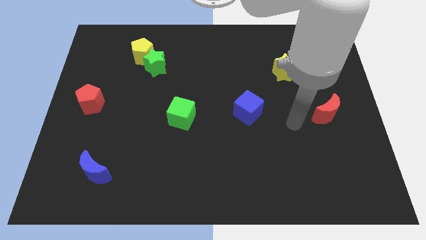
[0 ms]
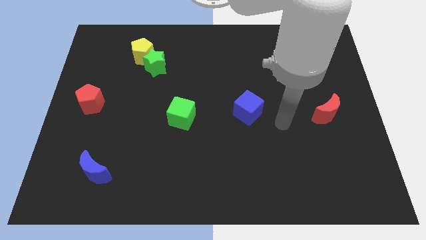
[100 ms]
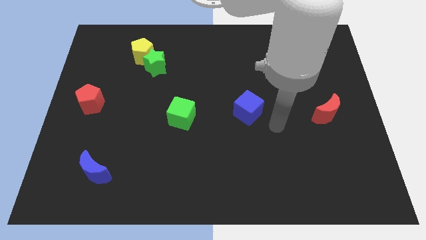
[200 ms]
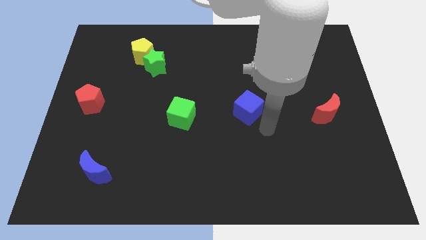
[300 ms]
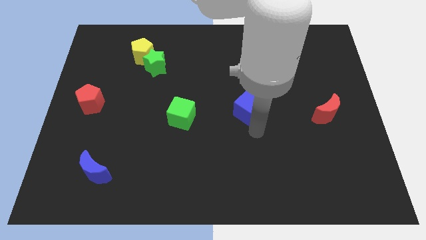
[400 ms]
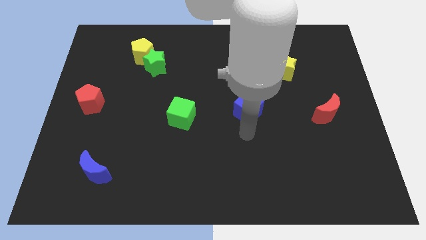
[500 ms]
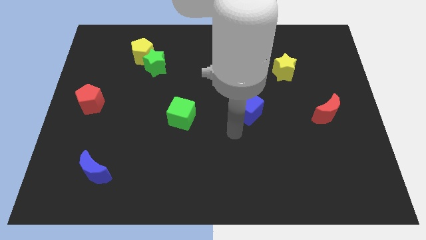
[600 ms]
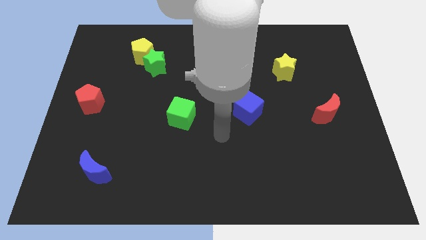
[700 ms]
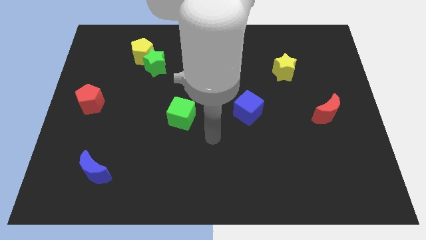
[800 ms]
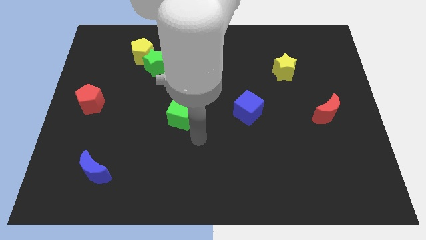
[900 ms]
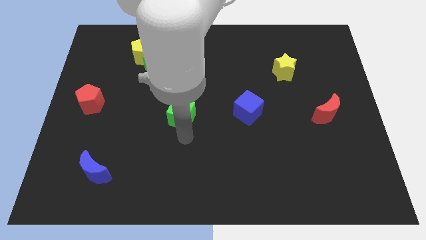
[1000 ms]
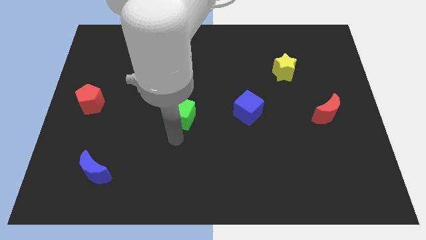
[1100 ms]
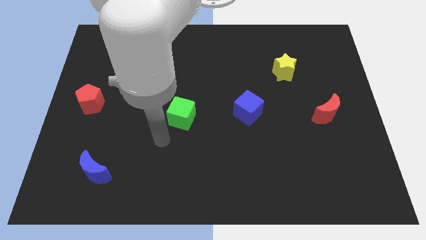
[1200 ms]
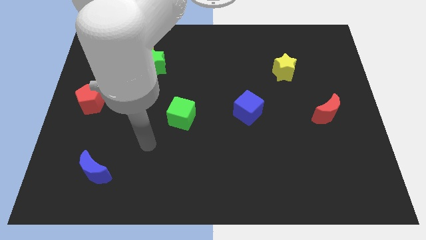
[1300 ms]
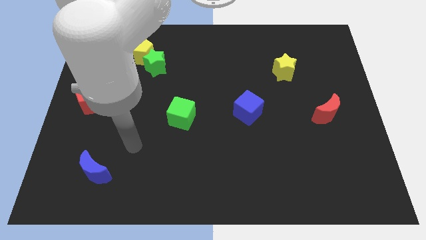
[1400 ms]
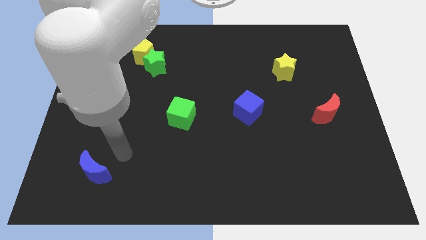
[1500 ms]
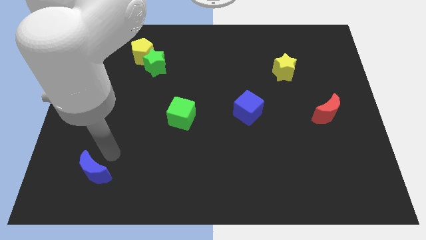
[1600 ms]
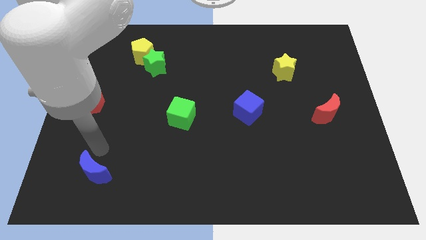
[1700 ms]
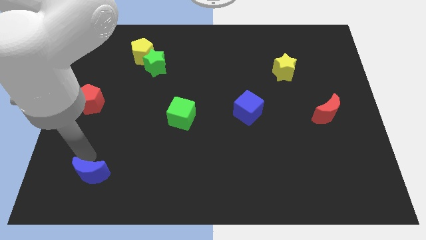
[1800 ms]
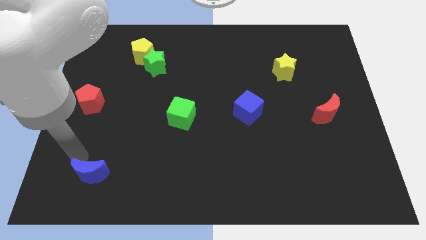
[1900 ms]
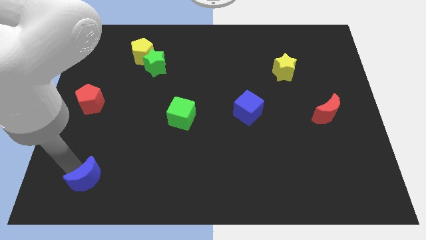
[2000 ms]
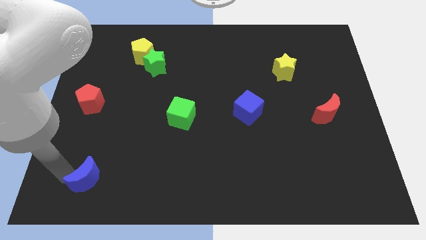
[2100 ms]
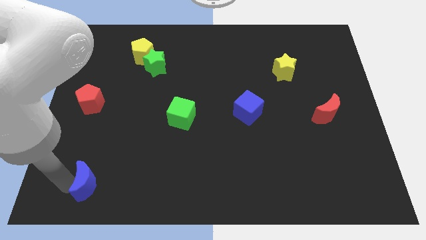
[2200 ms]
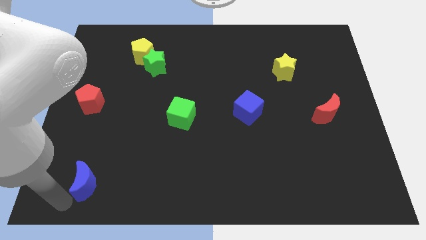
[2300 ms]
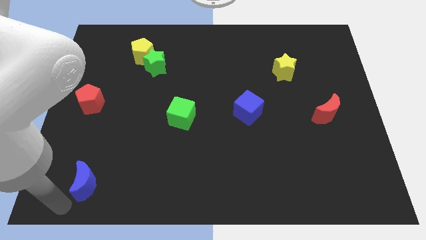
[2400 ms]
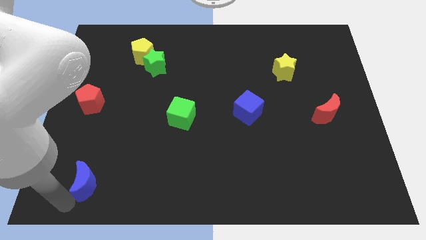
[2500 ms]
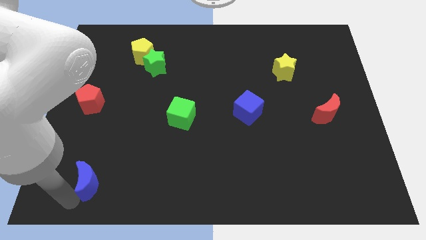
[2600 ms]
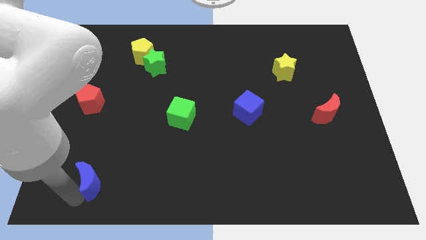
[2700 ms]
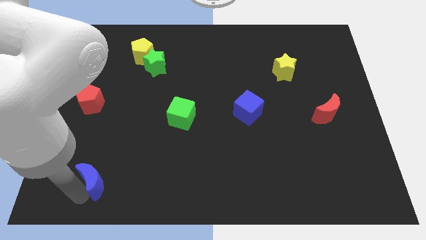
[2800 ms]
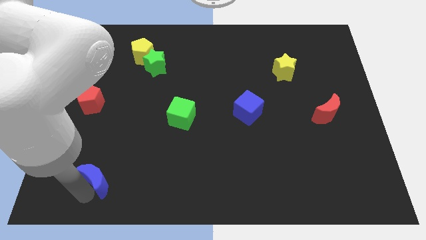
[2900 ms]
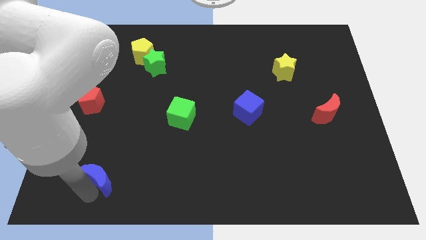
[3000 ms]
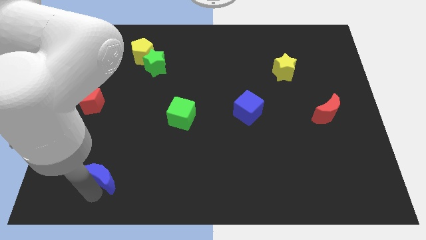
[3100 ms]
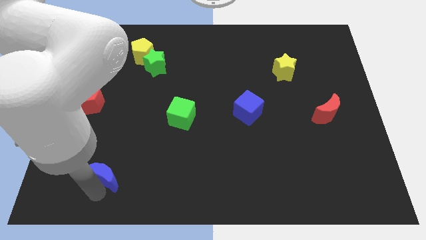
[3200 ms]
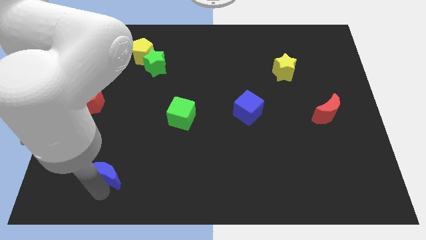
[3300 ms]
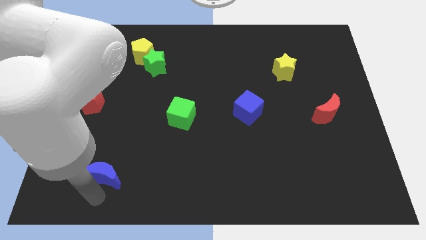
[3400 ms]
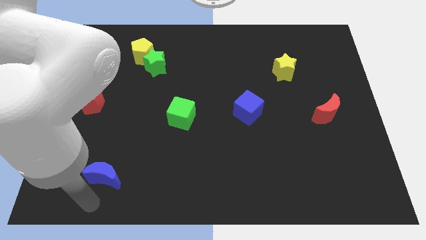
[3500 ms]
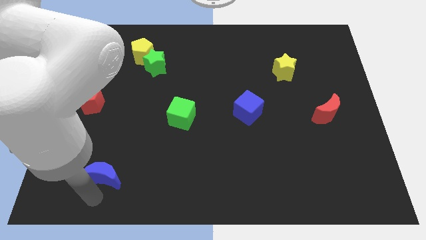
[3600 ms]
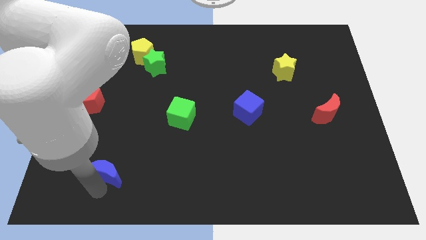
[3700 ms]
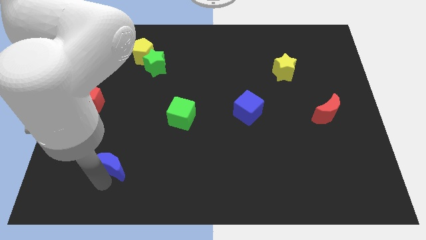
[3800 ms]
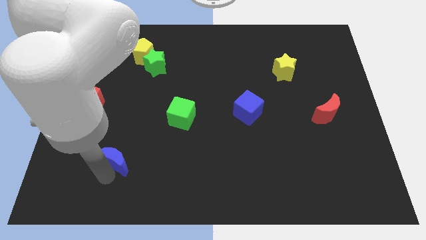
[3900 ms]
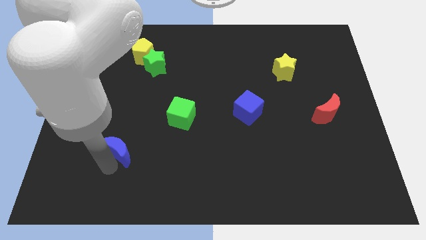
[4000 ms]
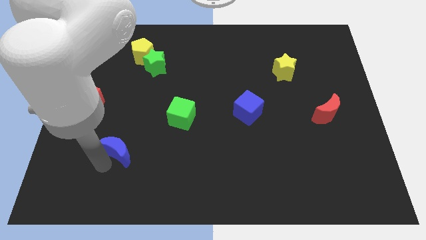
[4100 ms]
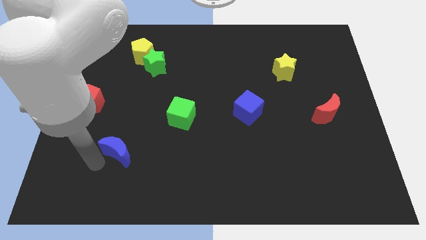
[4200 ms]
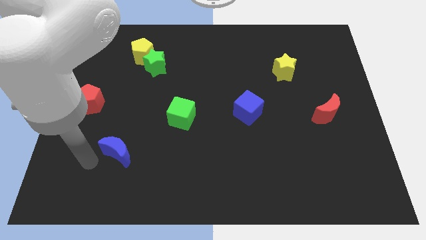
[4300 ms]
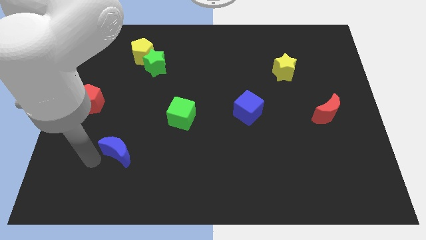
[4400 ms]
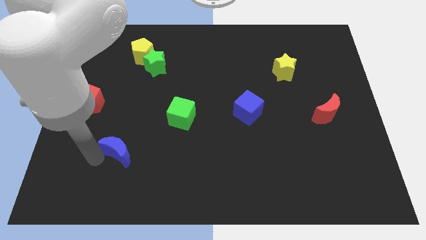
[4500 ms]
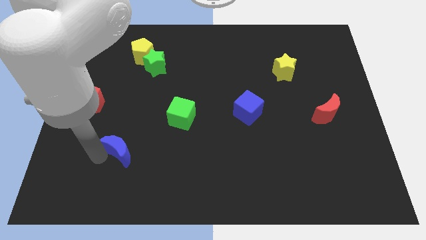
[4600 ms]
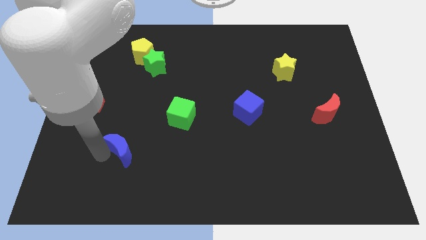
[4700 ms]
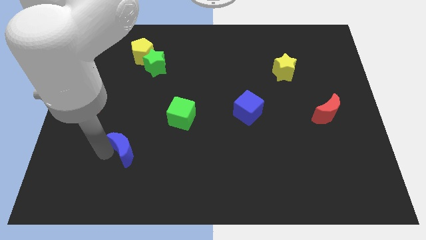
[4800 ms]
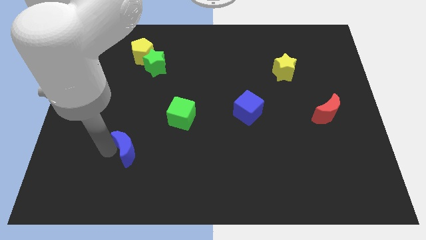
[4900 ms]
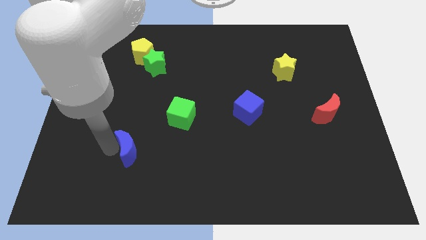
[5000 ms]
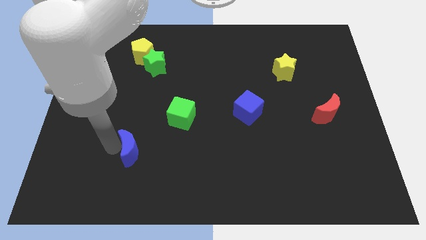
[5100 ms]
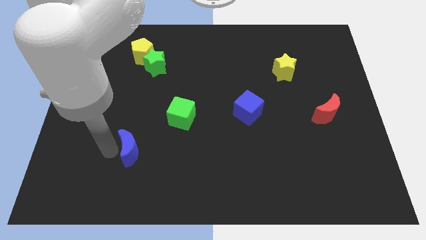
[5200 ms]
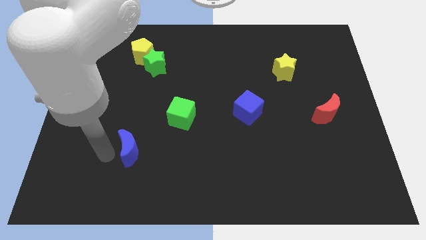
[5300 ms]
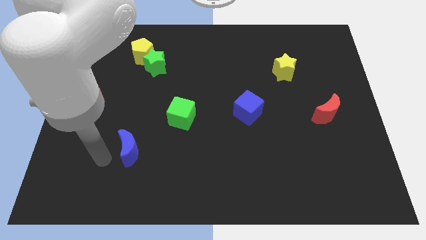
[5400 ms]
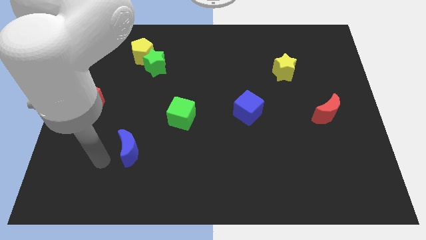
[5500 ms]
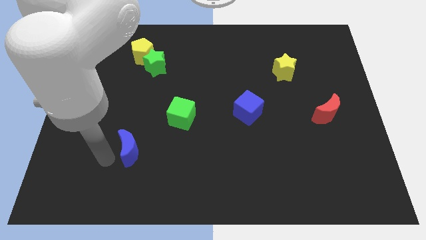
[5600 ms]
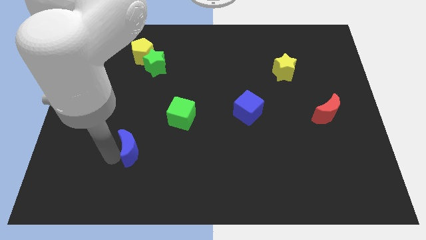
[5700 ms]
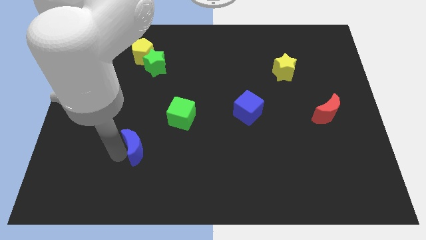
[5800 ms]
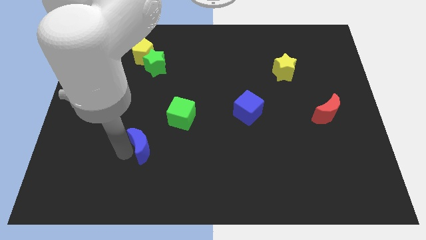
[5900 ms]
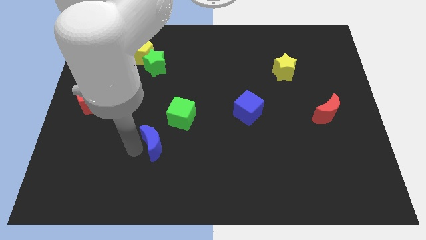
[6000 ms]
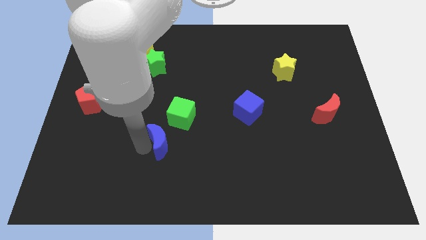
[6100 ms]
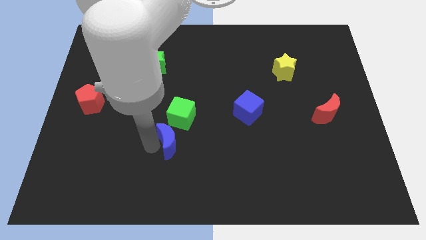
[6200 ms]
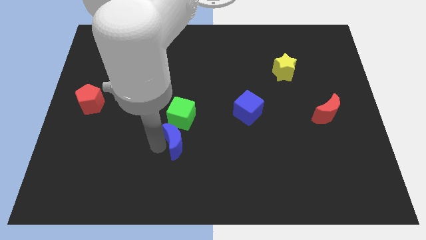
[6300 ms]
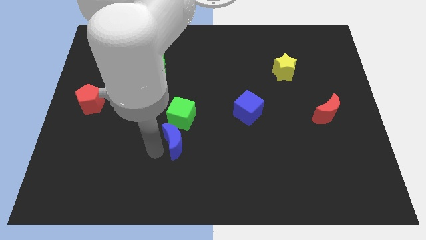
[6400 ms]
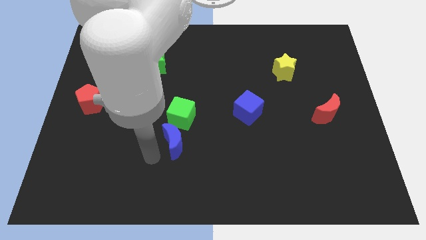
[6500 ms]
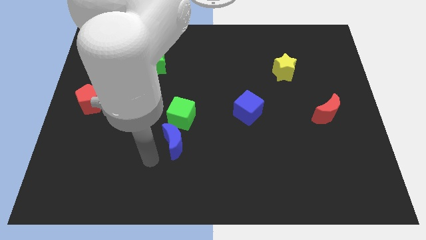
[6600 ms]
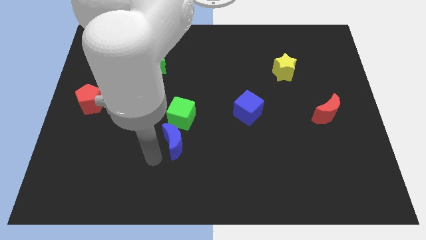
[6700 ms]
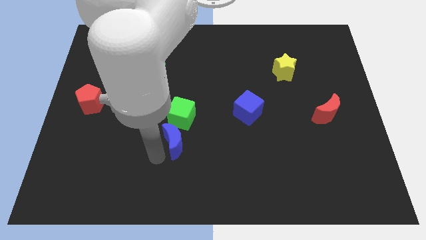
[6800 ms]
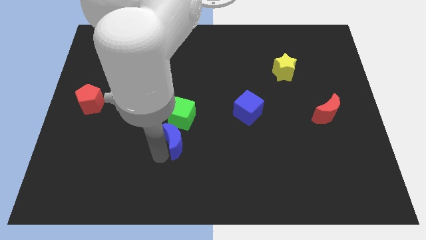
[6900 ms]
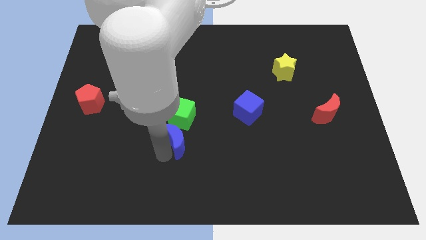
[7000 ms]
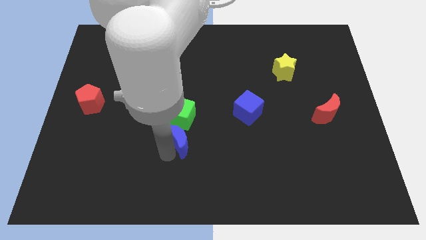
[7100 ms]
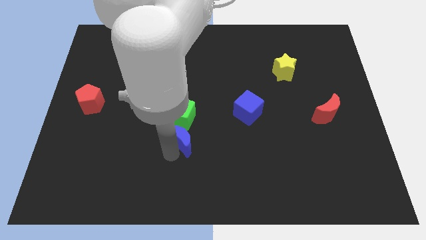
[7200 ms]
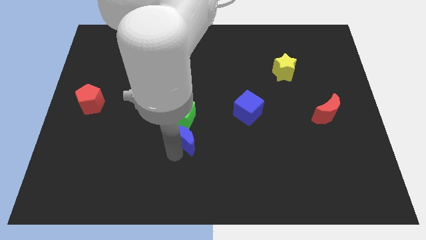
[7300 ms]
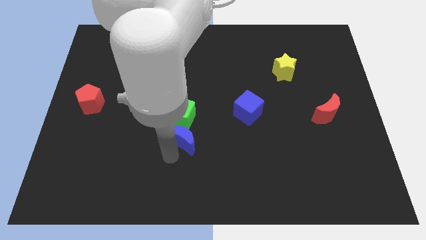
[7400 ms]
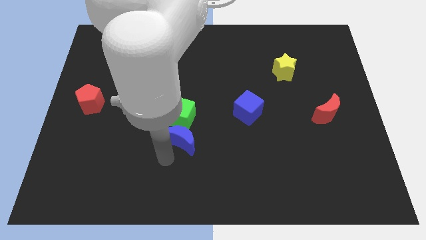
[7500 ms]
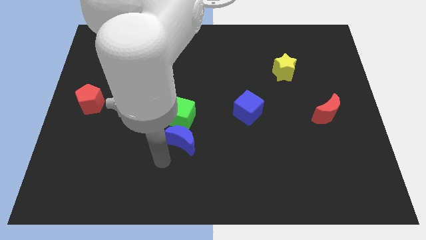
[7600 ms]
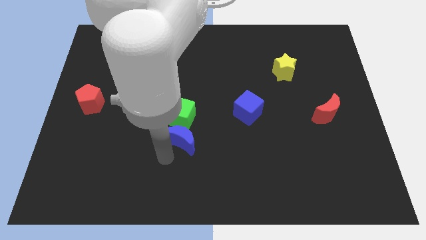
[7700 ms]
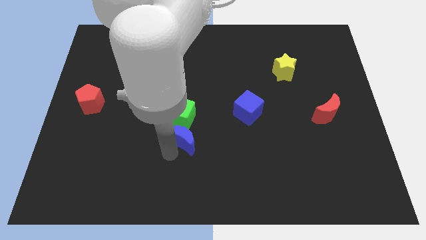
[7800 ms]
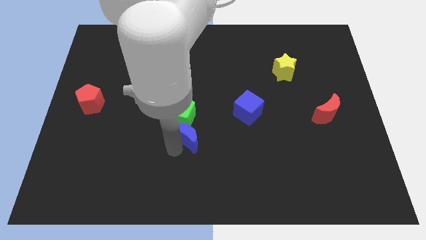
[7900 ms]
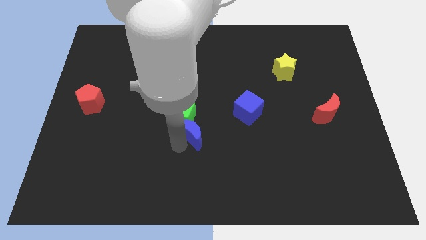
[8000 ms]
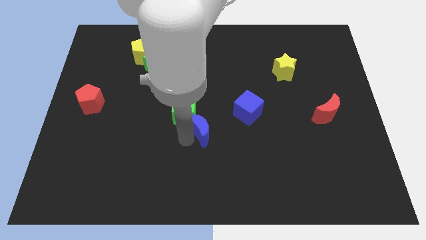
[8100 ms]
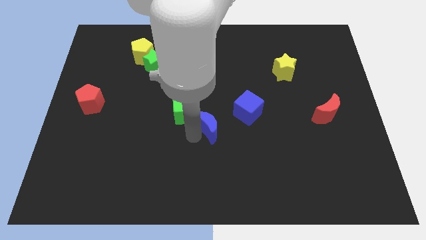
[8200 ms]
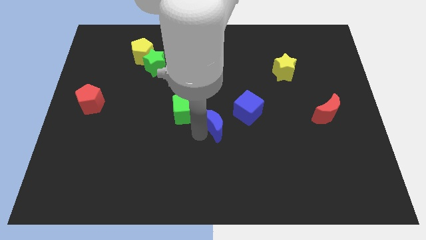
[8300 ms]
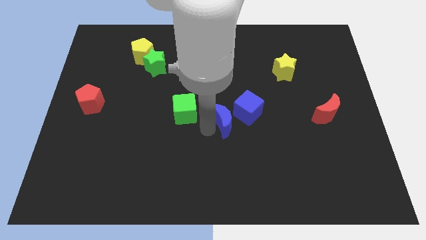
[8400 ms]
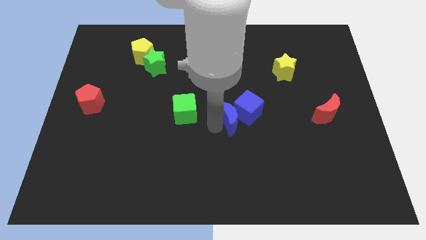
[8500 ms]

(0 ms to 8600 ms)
slide the blue moon towards the blue cube
